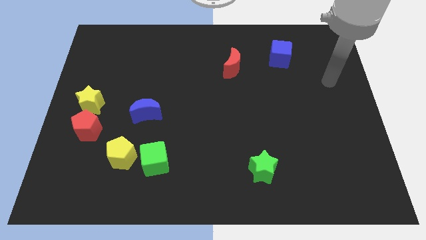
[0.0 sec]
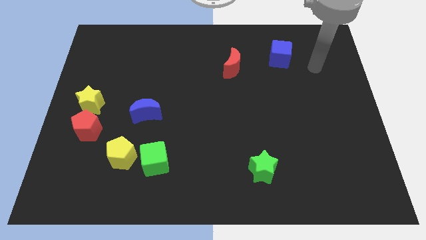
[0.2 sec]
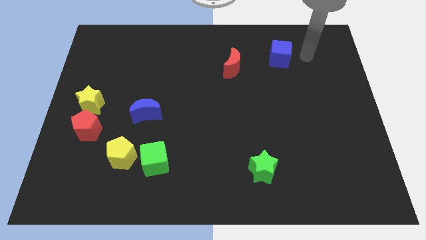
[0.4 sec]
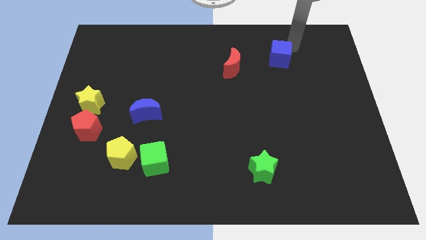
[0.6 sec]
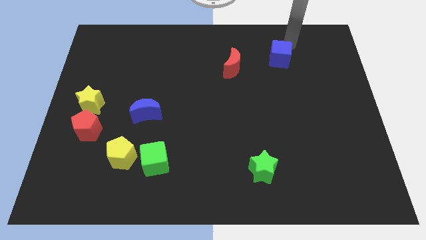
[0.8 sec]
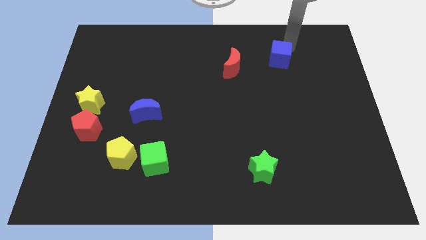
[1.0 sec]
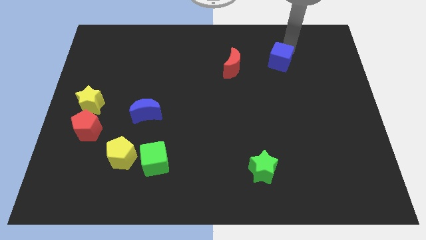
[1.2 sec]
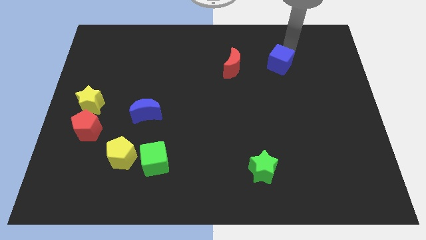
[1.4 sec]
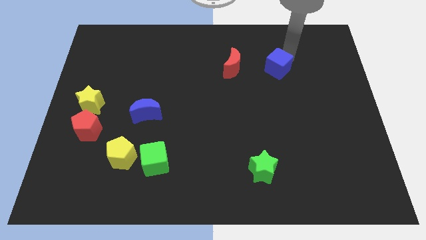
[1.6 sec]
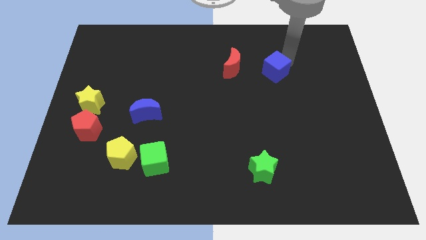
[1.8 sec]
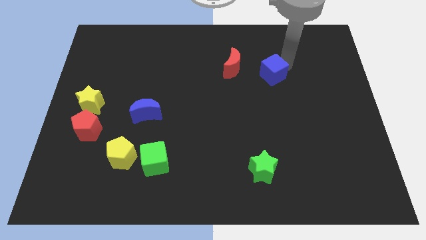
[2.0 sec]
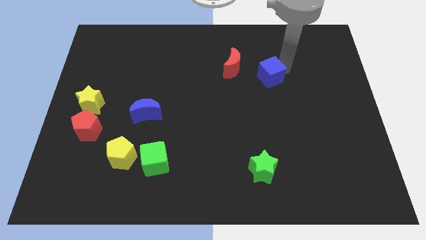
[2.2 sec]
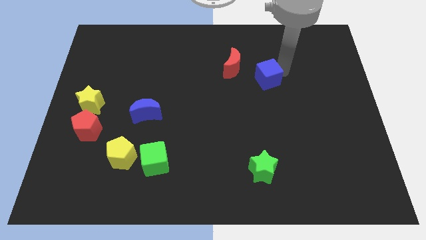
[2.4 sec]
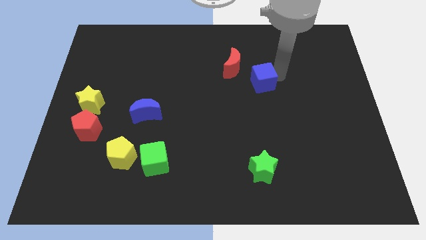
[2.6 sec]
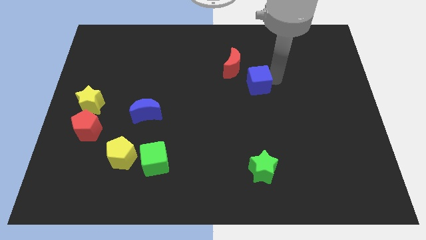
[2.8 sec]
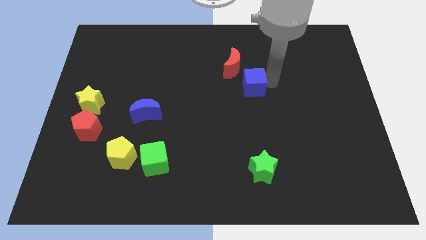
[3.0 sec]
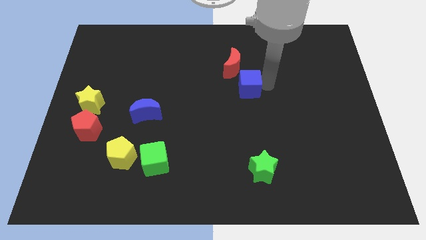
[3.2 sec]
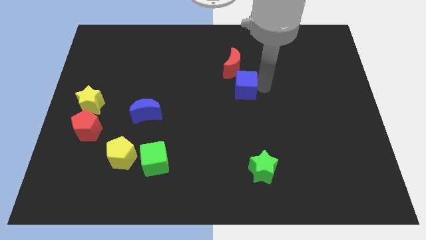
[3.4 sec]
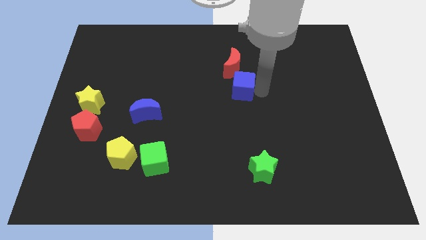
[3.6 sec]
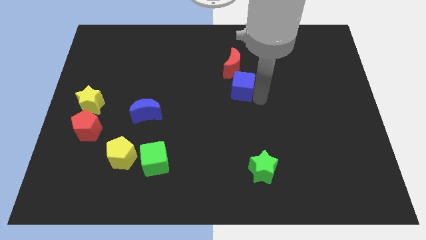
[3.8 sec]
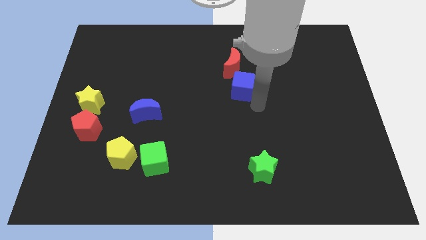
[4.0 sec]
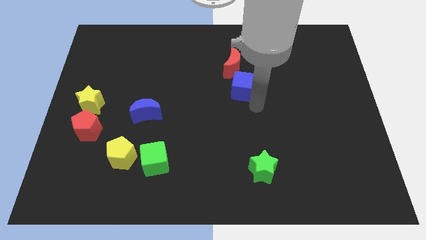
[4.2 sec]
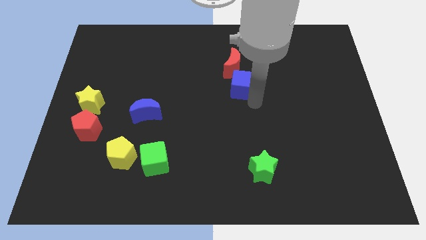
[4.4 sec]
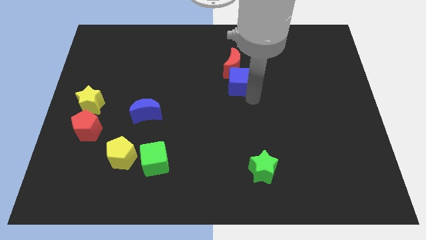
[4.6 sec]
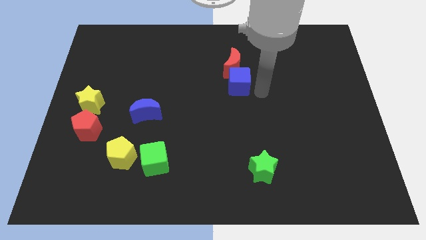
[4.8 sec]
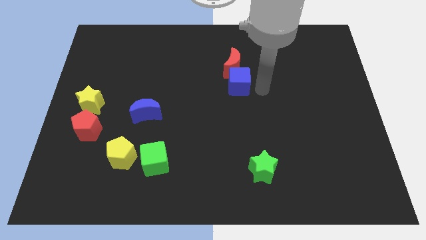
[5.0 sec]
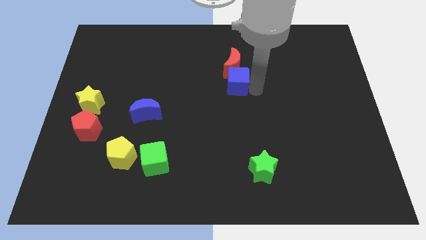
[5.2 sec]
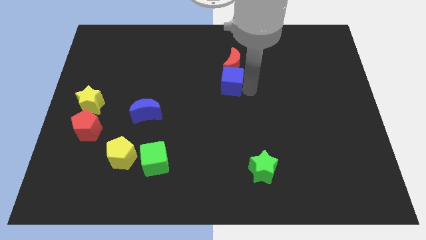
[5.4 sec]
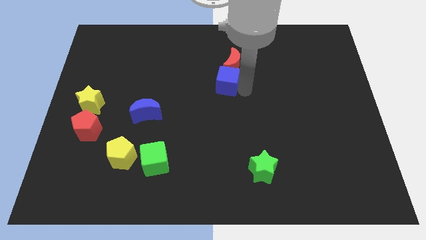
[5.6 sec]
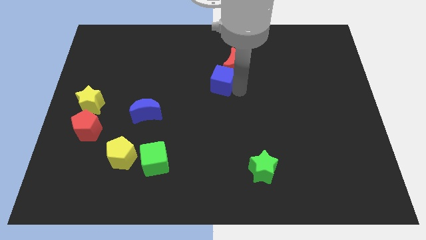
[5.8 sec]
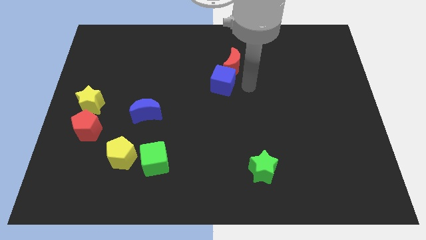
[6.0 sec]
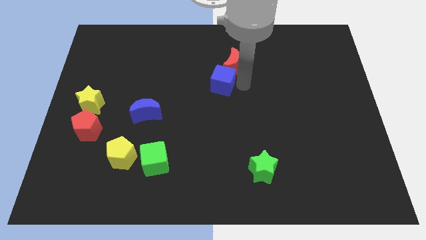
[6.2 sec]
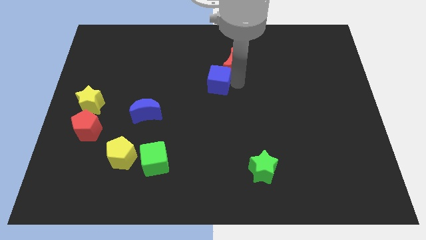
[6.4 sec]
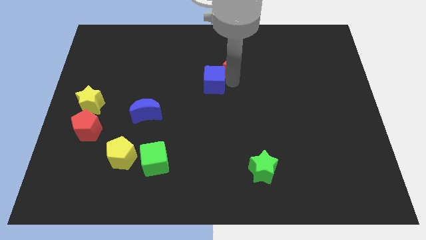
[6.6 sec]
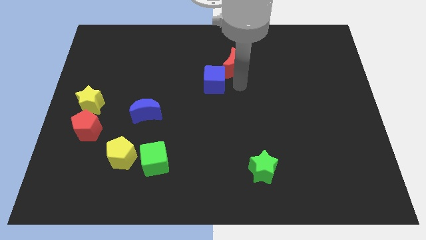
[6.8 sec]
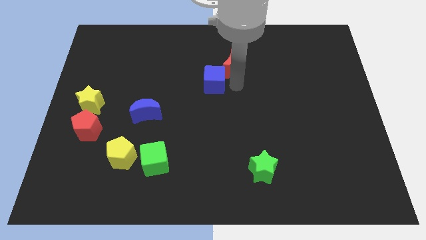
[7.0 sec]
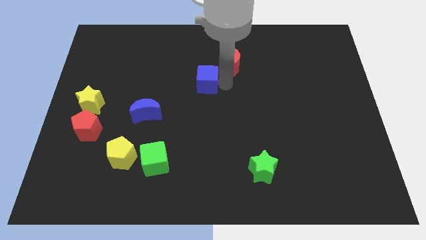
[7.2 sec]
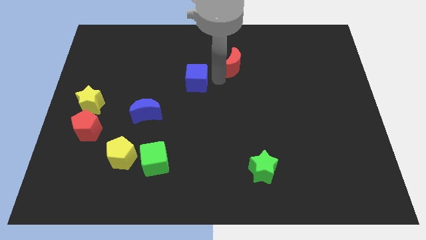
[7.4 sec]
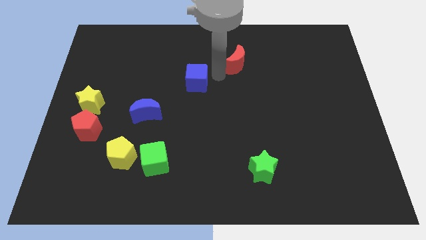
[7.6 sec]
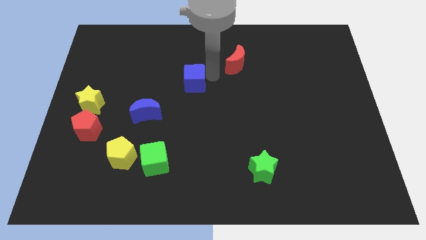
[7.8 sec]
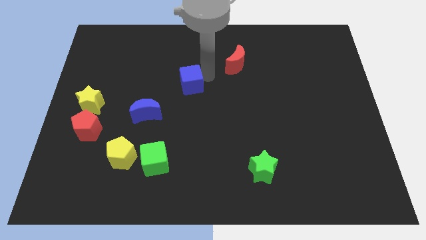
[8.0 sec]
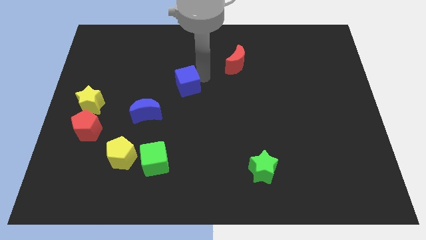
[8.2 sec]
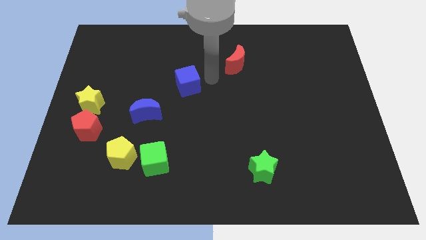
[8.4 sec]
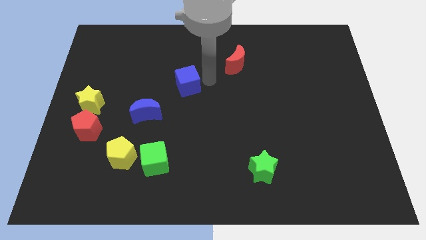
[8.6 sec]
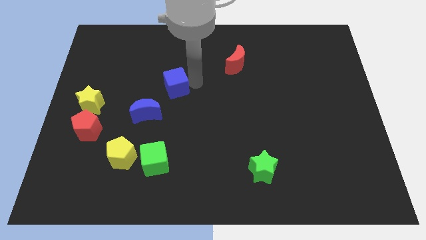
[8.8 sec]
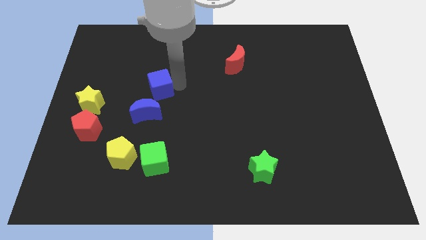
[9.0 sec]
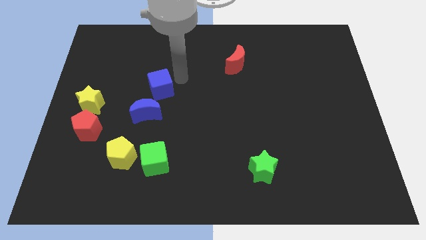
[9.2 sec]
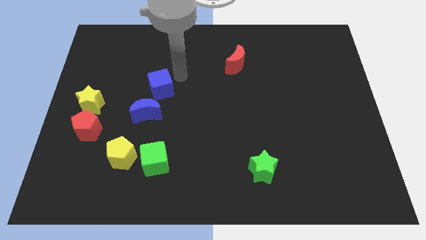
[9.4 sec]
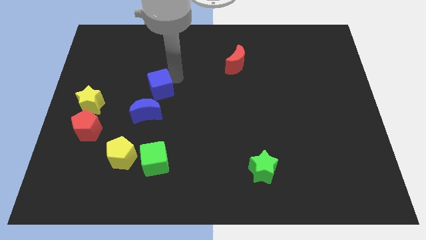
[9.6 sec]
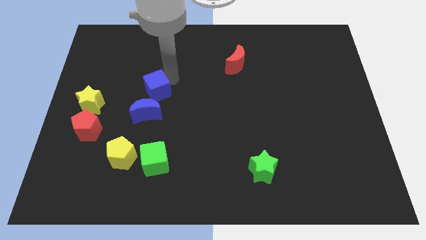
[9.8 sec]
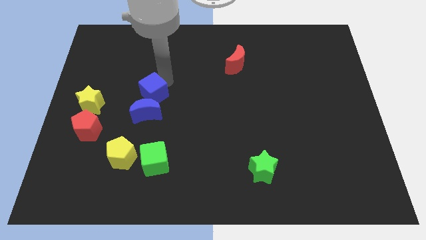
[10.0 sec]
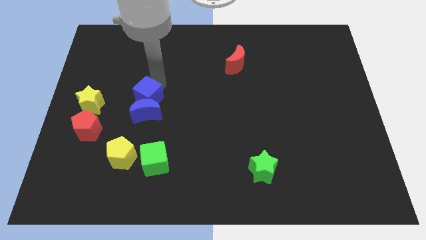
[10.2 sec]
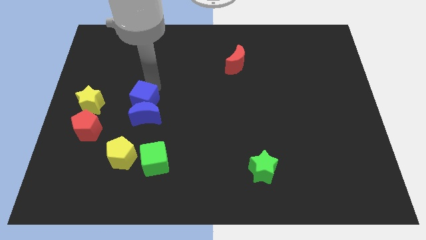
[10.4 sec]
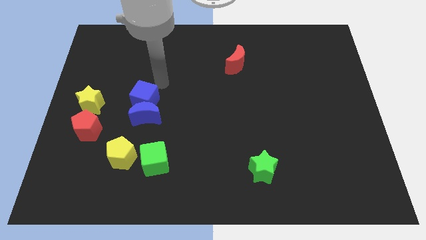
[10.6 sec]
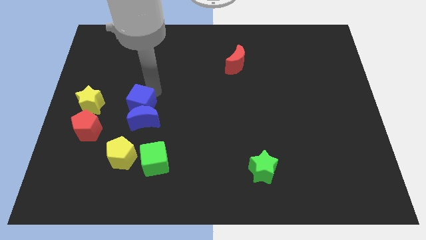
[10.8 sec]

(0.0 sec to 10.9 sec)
slide the blue cube above the yellow pentagon
